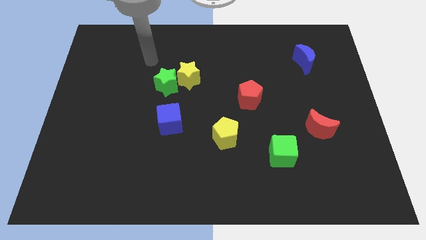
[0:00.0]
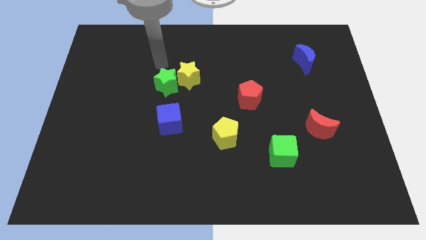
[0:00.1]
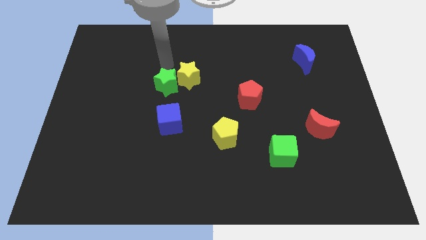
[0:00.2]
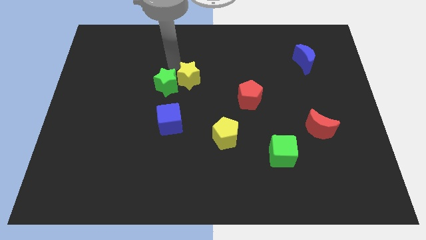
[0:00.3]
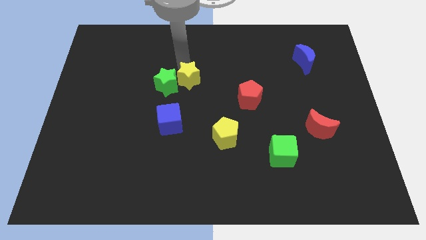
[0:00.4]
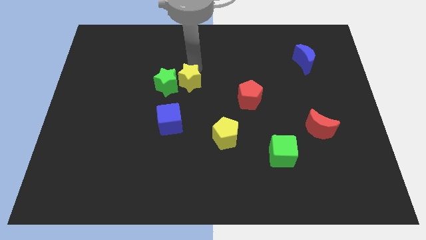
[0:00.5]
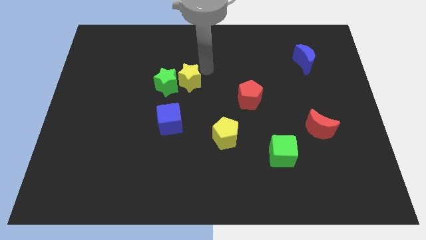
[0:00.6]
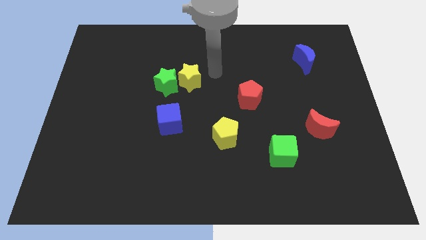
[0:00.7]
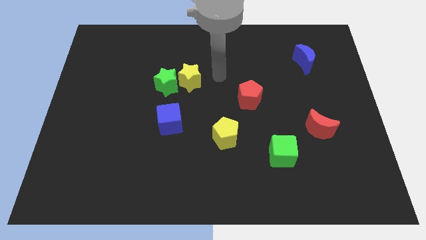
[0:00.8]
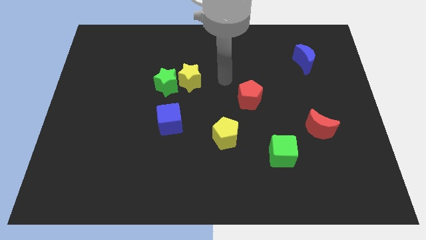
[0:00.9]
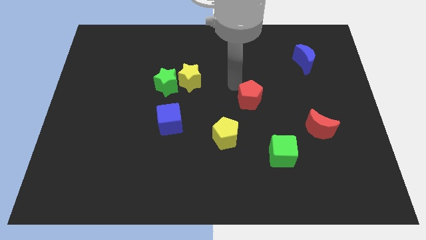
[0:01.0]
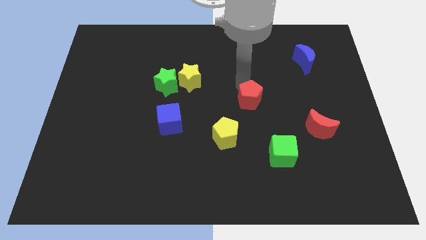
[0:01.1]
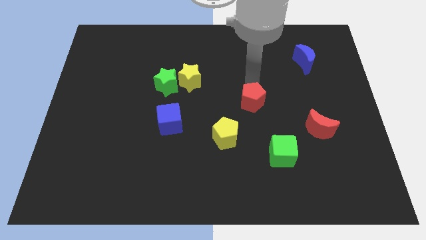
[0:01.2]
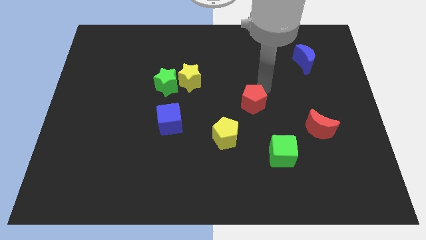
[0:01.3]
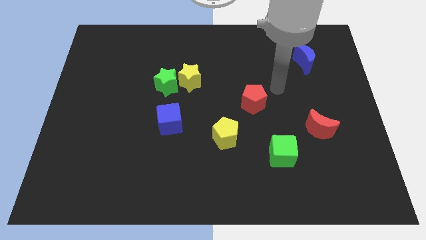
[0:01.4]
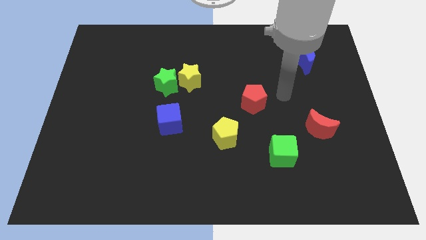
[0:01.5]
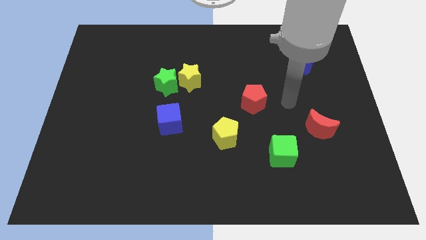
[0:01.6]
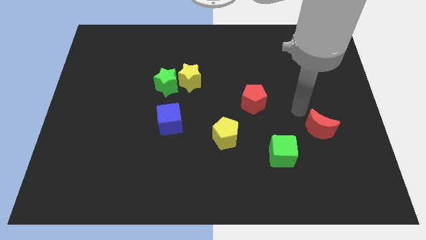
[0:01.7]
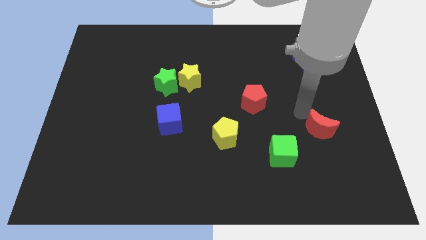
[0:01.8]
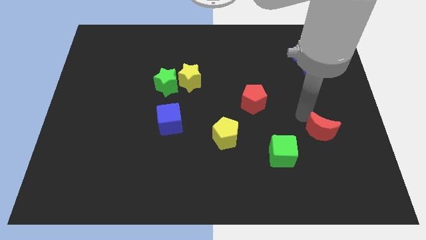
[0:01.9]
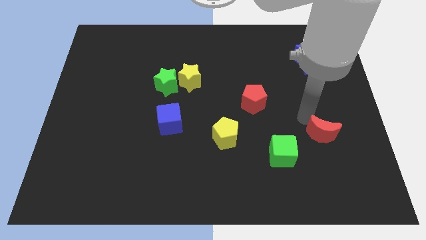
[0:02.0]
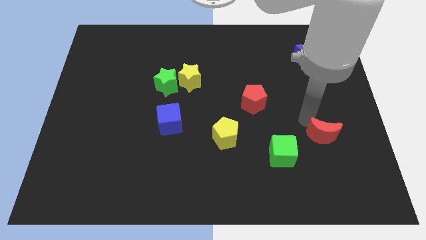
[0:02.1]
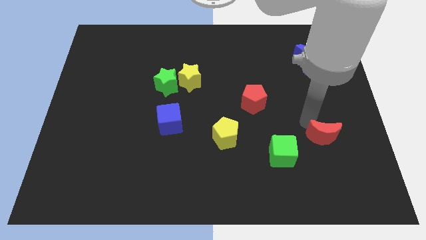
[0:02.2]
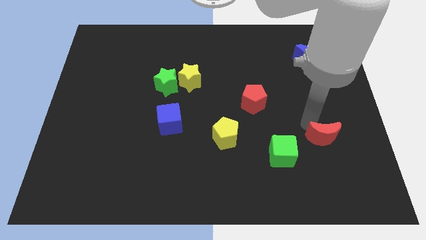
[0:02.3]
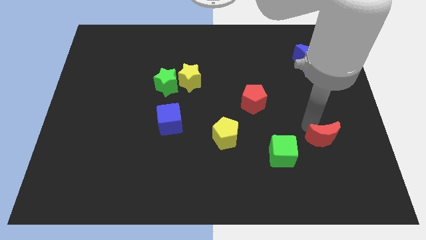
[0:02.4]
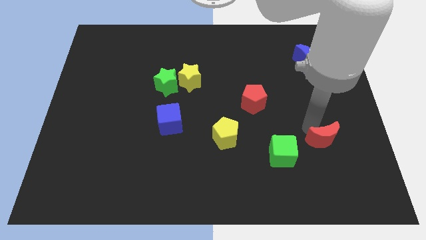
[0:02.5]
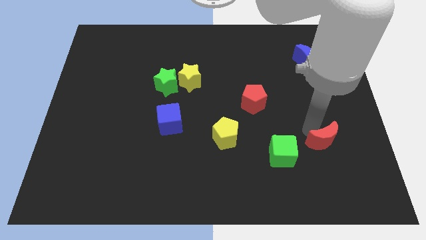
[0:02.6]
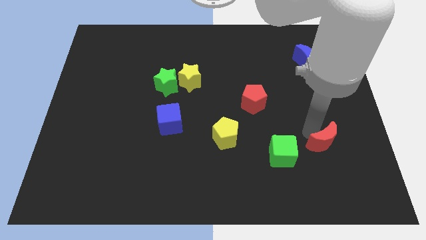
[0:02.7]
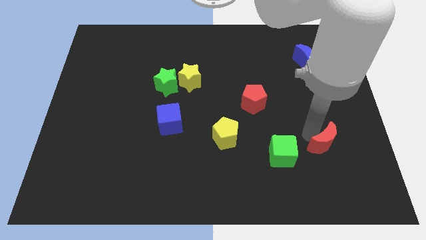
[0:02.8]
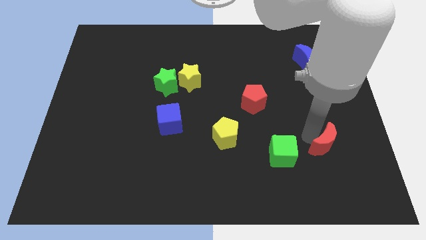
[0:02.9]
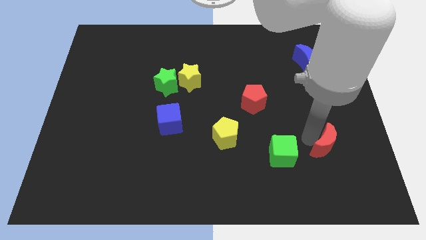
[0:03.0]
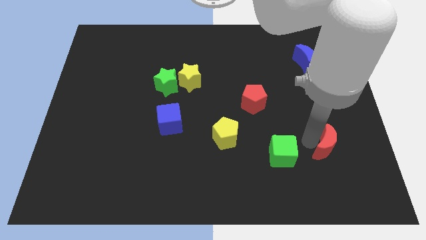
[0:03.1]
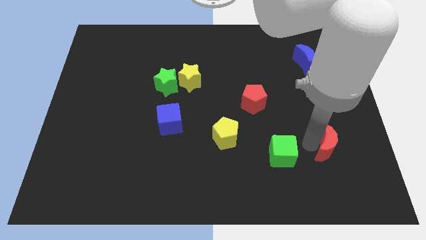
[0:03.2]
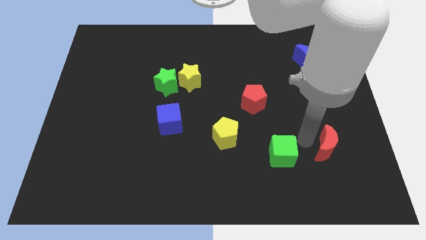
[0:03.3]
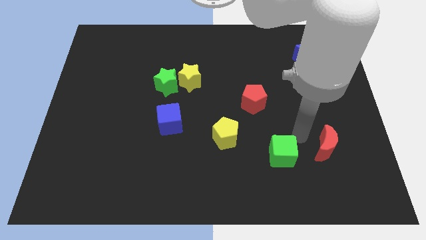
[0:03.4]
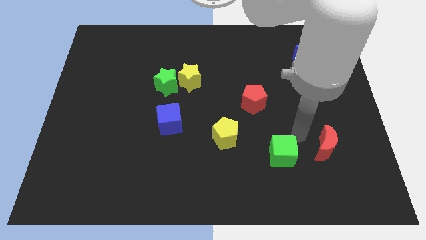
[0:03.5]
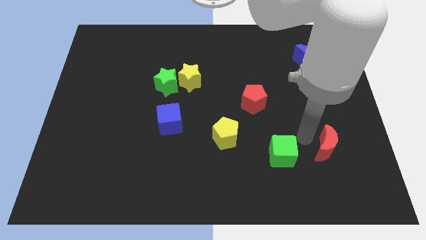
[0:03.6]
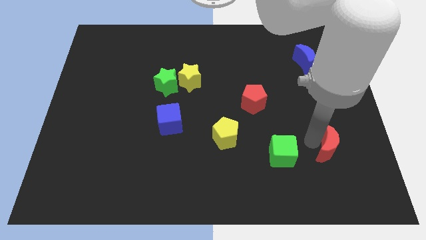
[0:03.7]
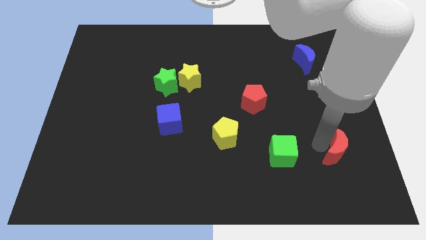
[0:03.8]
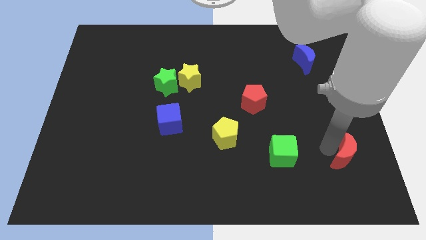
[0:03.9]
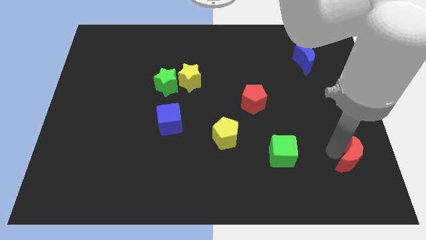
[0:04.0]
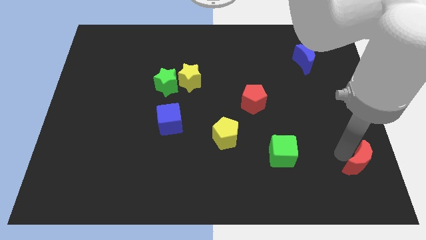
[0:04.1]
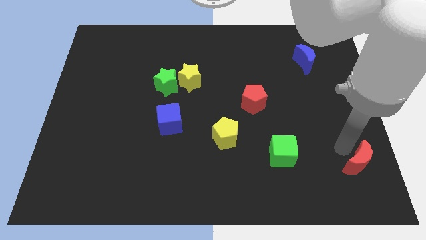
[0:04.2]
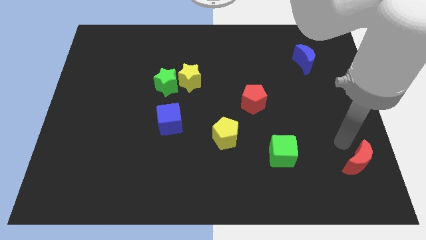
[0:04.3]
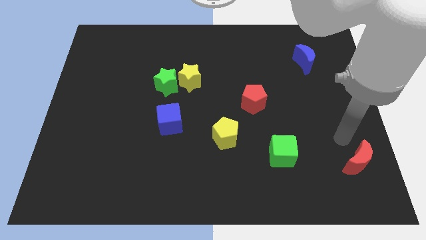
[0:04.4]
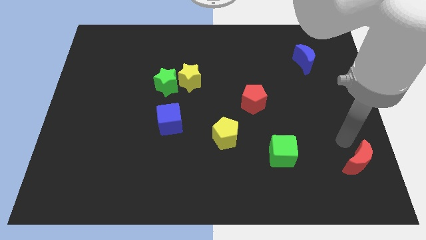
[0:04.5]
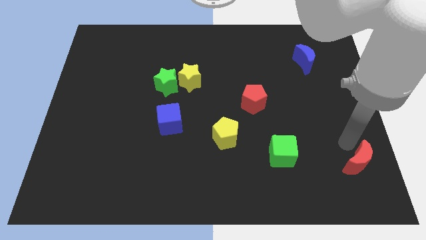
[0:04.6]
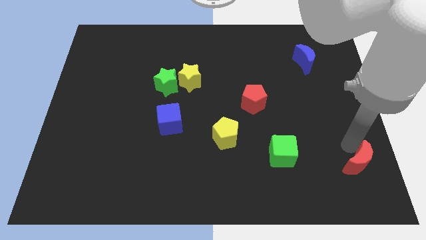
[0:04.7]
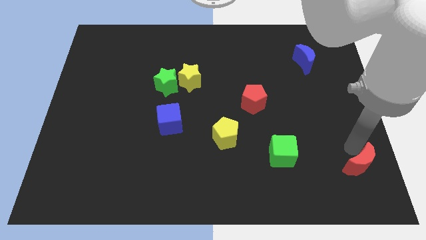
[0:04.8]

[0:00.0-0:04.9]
push the red moon to the bottom right

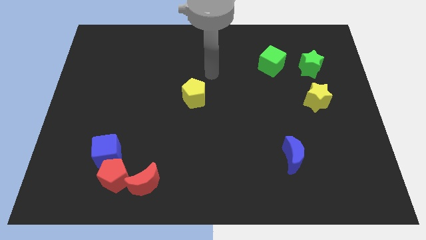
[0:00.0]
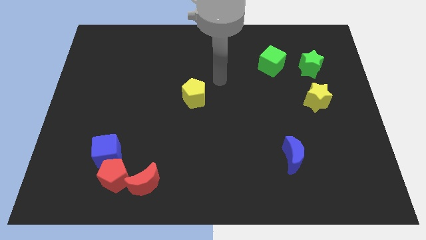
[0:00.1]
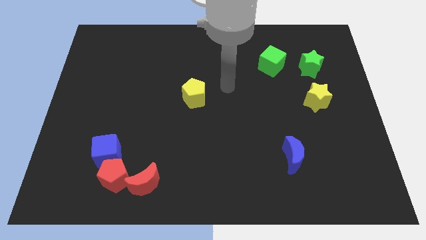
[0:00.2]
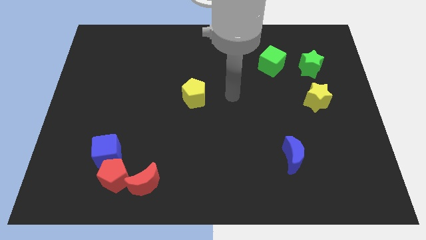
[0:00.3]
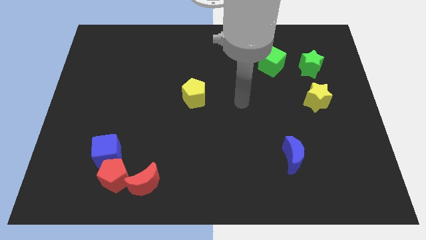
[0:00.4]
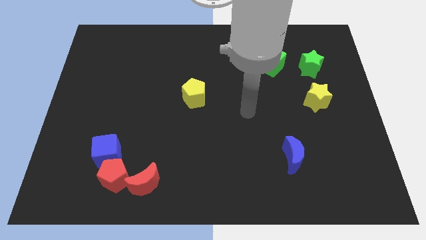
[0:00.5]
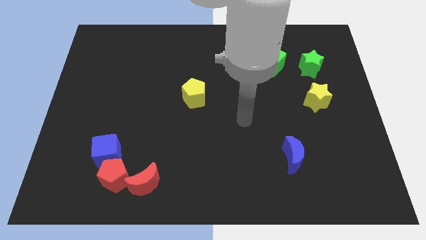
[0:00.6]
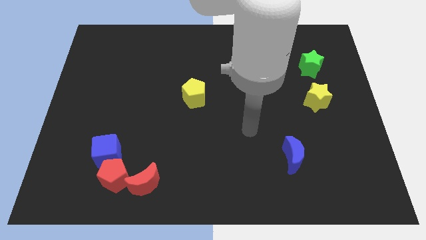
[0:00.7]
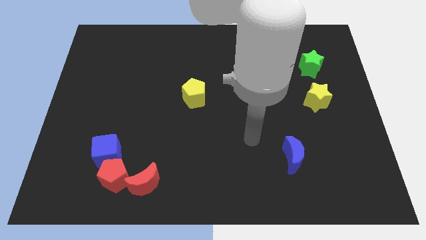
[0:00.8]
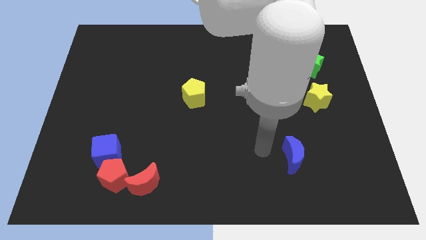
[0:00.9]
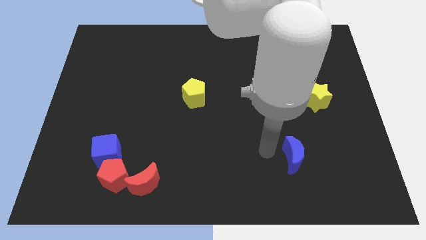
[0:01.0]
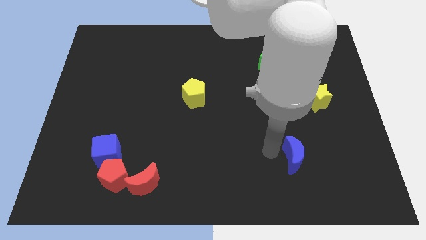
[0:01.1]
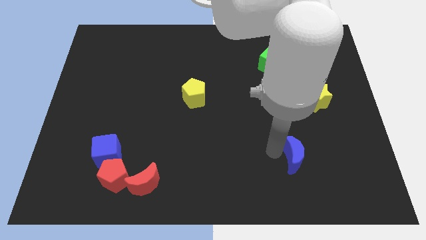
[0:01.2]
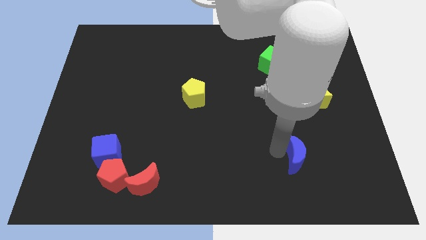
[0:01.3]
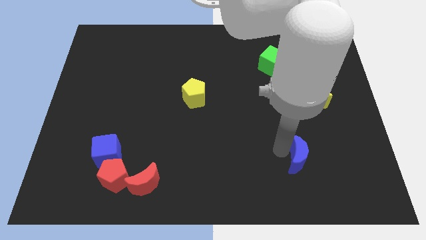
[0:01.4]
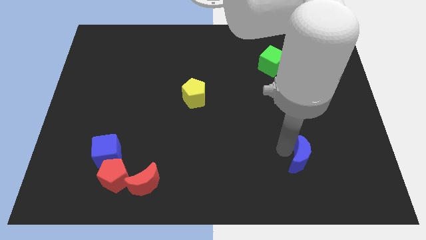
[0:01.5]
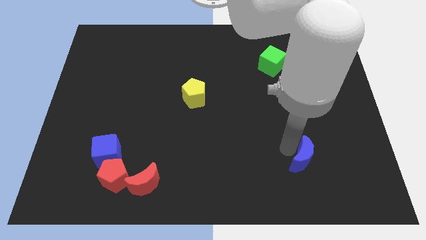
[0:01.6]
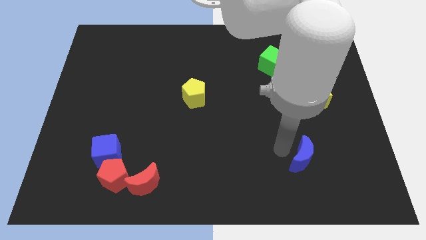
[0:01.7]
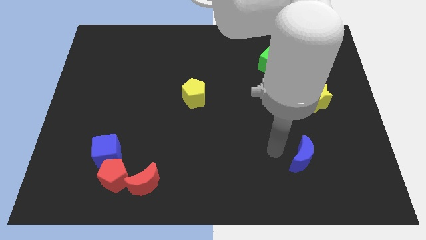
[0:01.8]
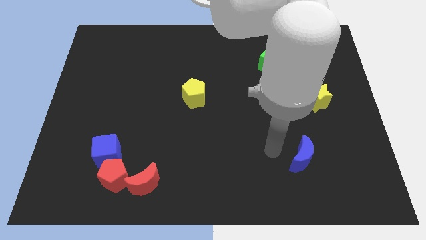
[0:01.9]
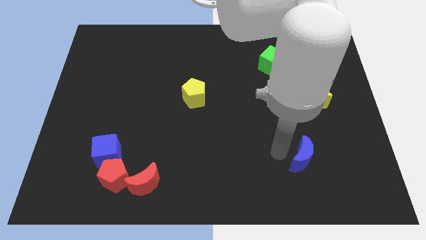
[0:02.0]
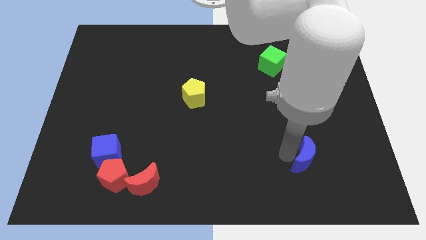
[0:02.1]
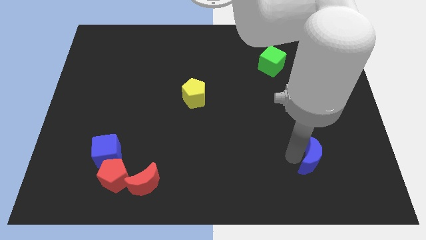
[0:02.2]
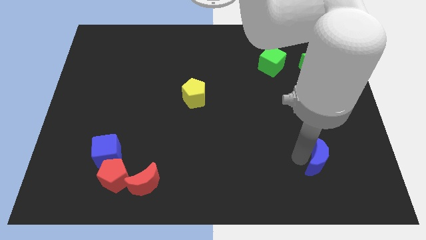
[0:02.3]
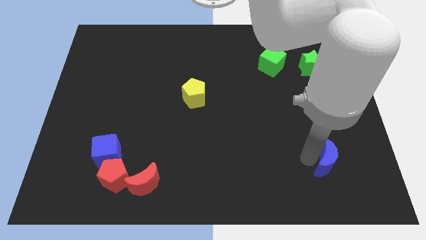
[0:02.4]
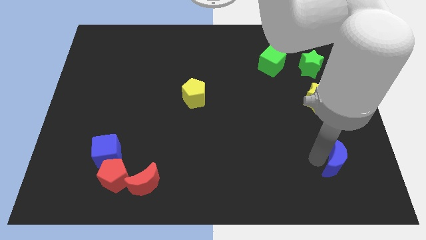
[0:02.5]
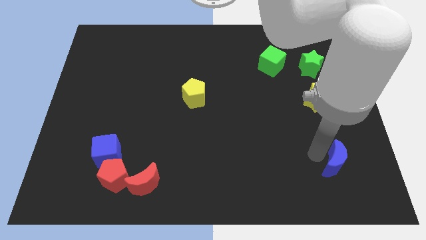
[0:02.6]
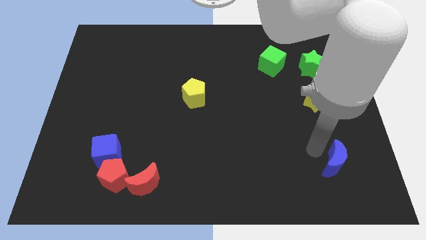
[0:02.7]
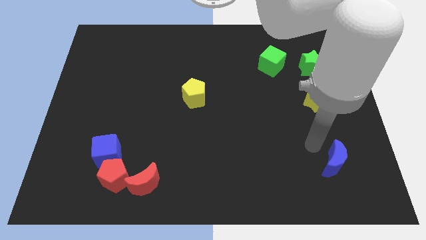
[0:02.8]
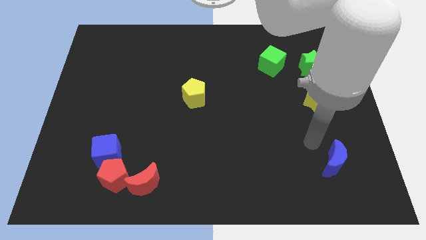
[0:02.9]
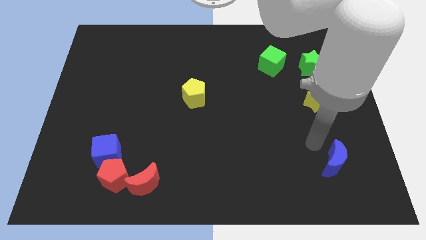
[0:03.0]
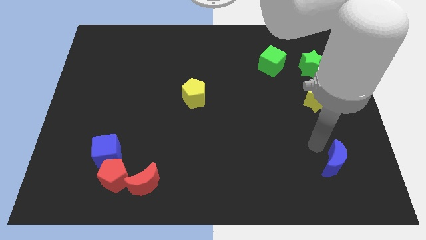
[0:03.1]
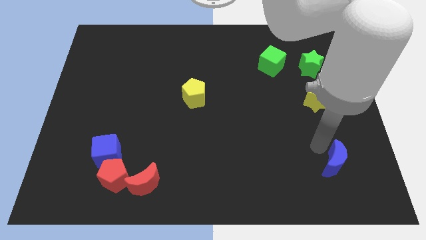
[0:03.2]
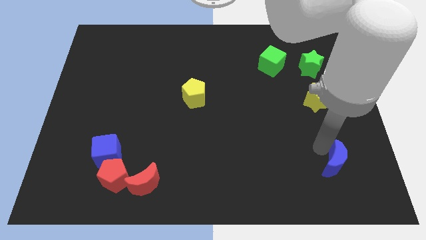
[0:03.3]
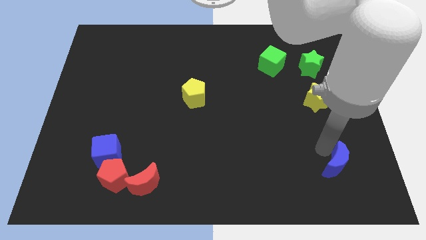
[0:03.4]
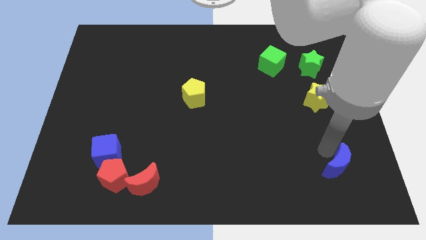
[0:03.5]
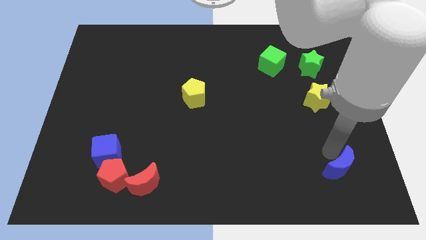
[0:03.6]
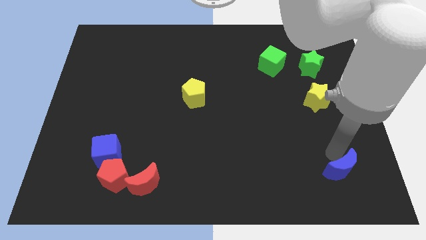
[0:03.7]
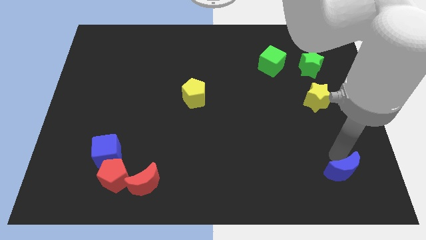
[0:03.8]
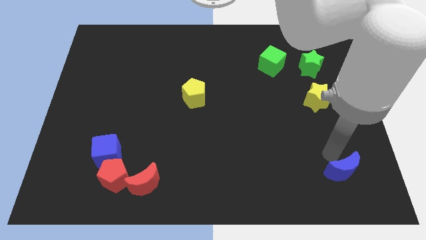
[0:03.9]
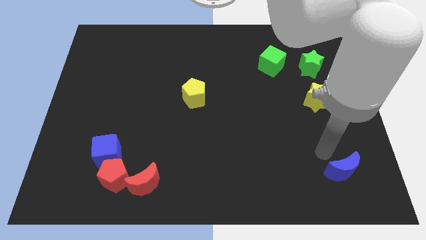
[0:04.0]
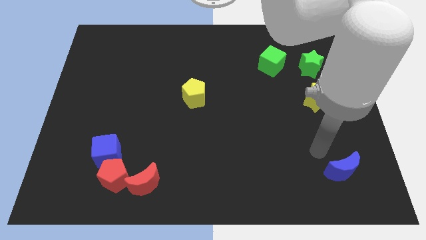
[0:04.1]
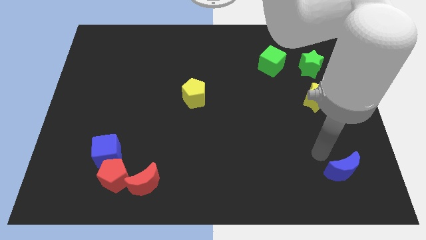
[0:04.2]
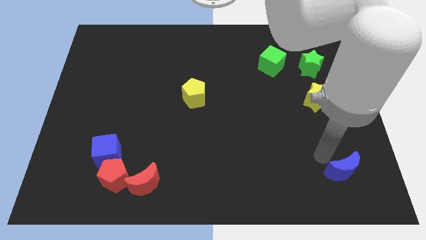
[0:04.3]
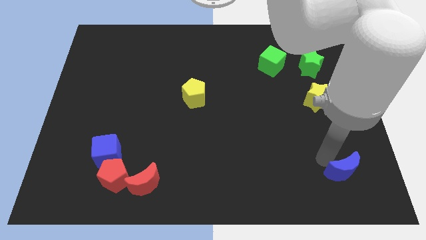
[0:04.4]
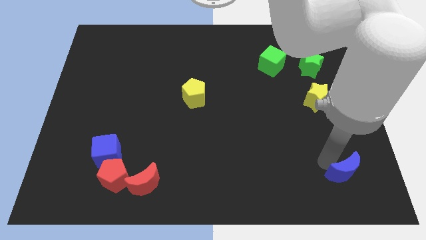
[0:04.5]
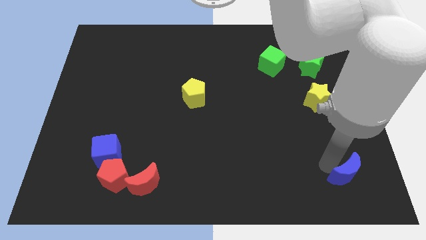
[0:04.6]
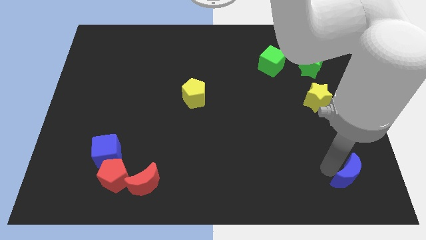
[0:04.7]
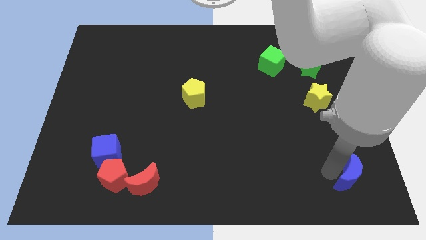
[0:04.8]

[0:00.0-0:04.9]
put the blue moon to the bottom right corner
